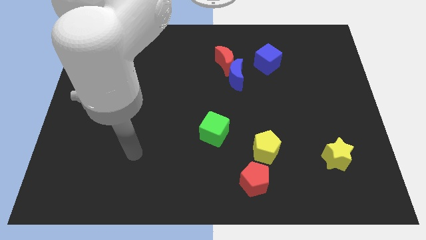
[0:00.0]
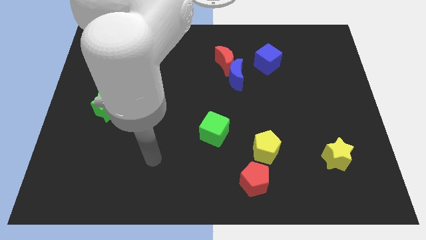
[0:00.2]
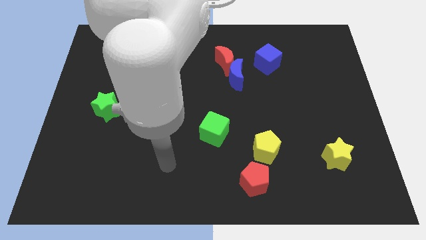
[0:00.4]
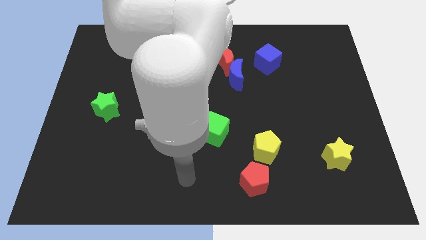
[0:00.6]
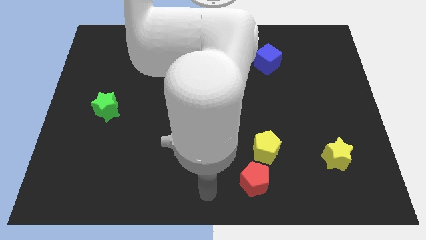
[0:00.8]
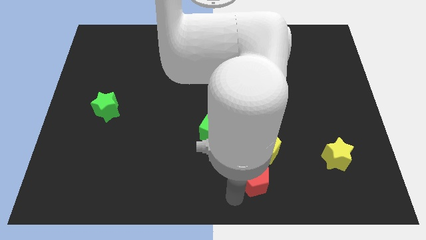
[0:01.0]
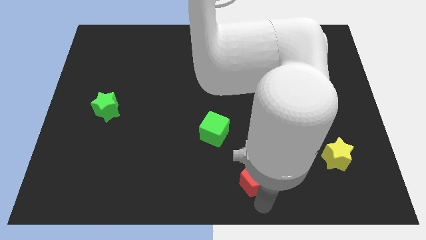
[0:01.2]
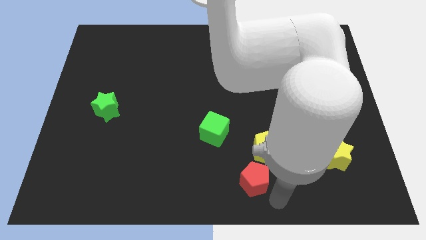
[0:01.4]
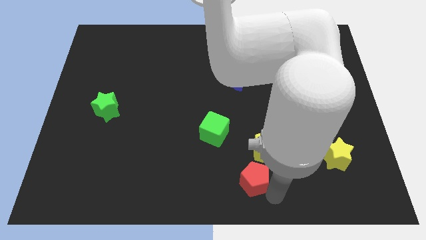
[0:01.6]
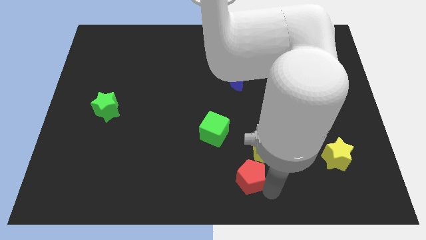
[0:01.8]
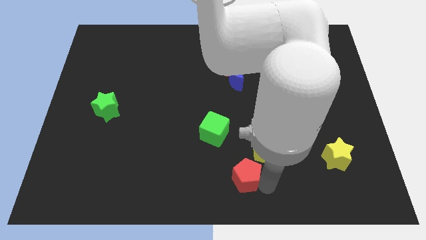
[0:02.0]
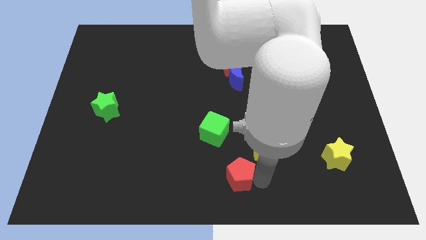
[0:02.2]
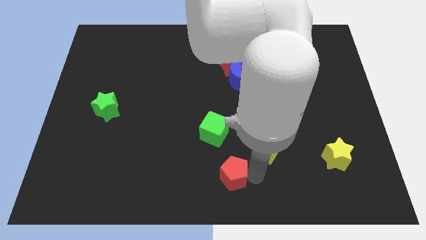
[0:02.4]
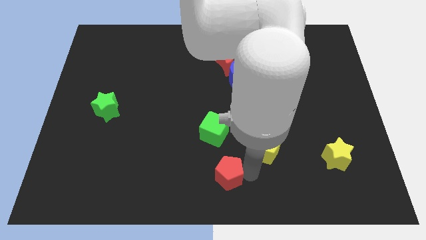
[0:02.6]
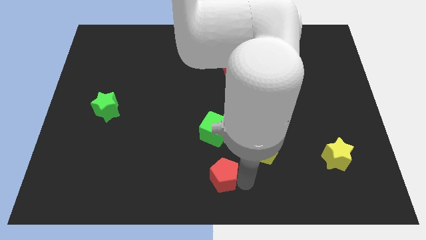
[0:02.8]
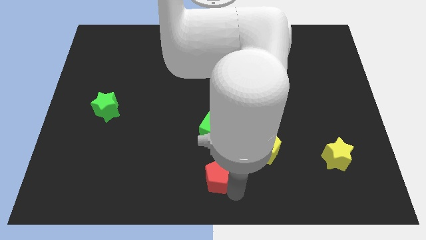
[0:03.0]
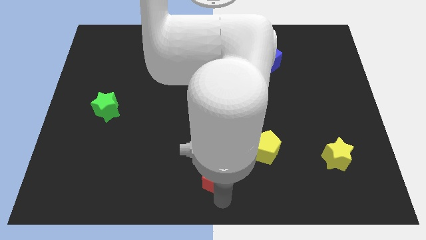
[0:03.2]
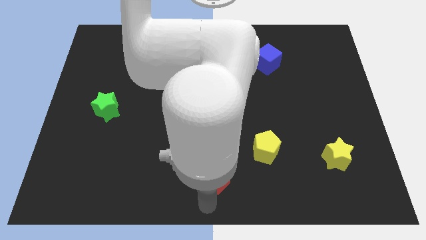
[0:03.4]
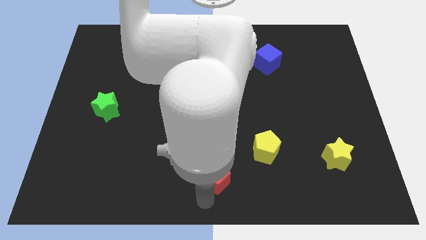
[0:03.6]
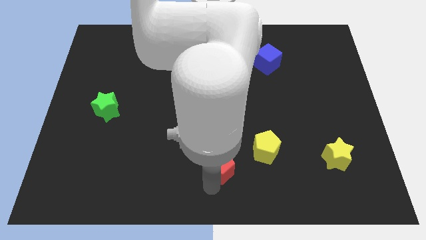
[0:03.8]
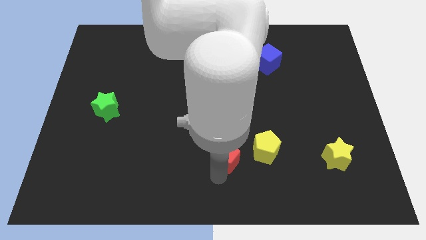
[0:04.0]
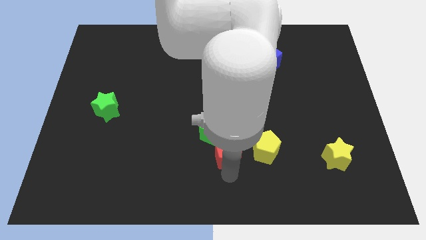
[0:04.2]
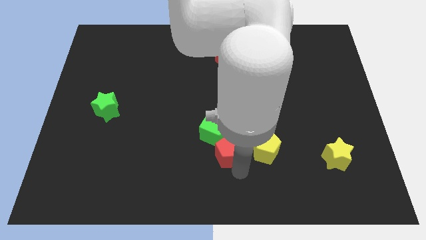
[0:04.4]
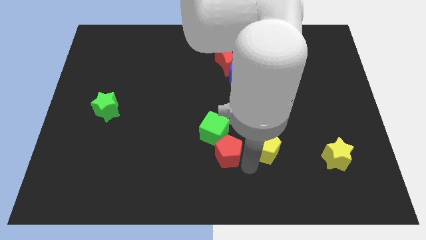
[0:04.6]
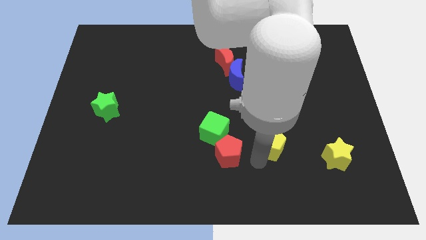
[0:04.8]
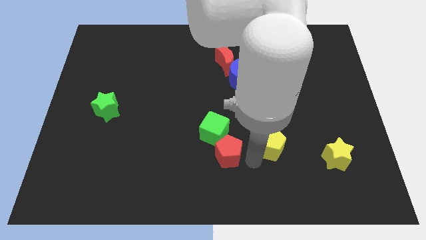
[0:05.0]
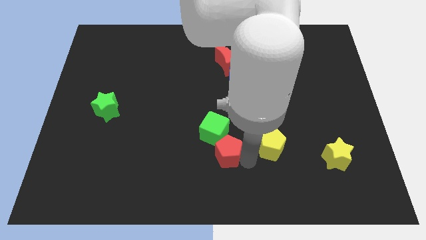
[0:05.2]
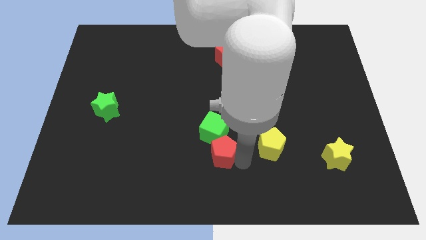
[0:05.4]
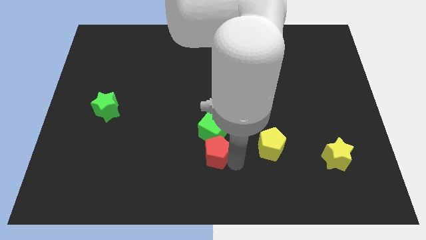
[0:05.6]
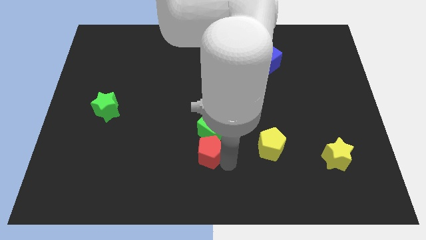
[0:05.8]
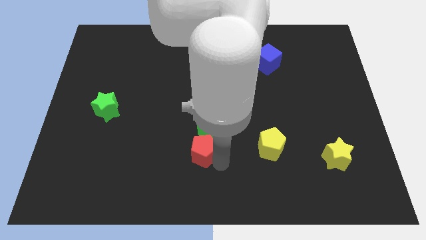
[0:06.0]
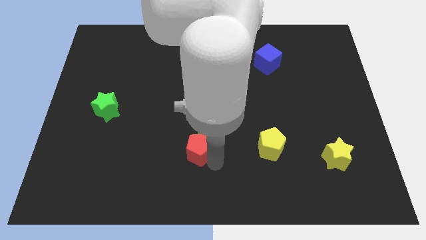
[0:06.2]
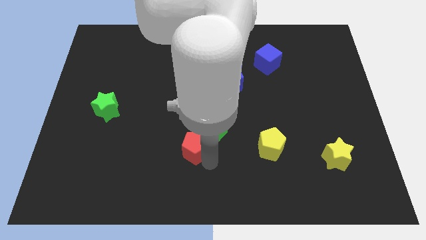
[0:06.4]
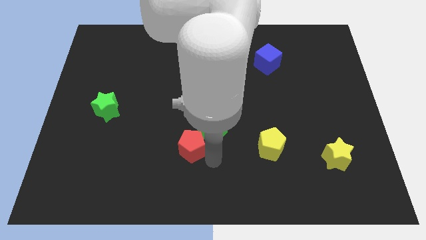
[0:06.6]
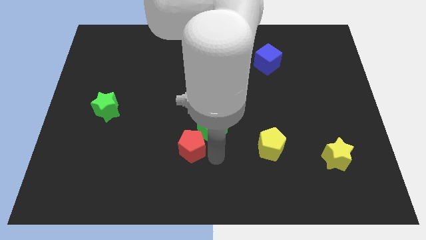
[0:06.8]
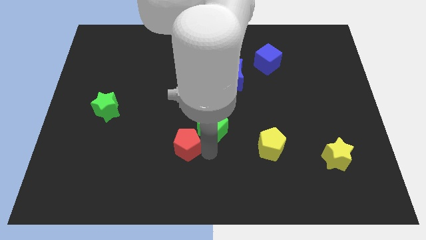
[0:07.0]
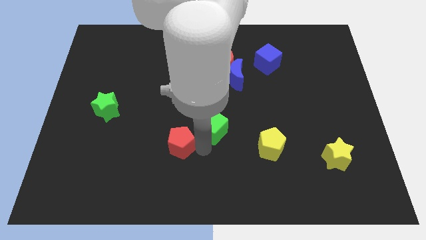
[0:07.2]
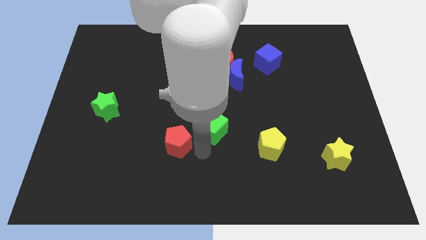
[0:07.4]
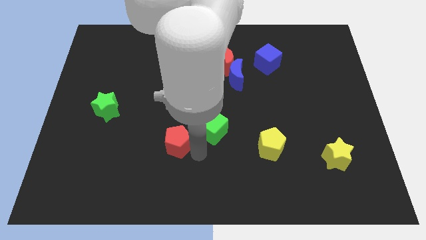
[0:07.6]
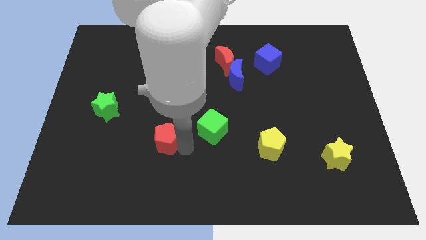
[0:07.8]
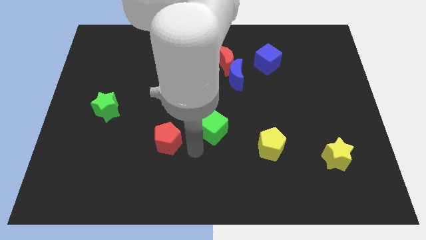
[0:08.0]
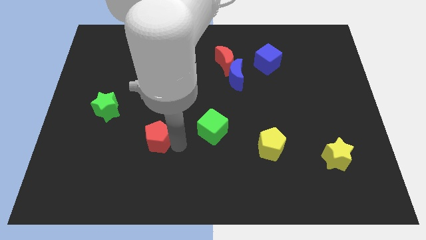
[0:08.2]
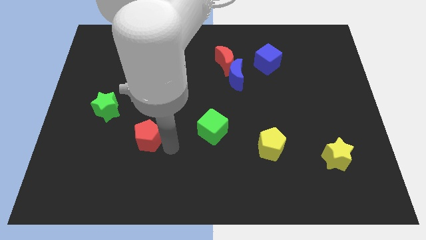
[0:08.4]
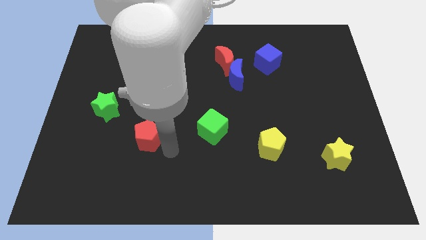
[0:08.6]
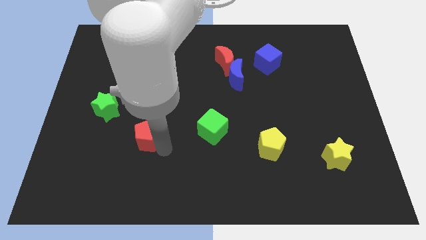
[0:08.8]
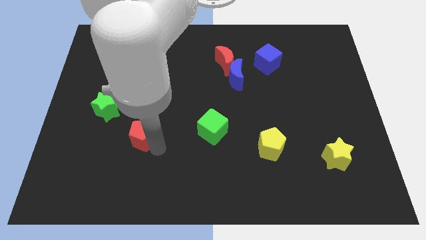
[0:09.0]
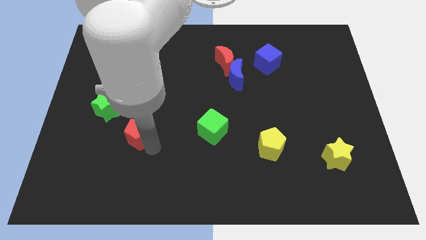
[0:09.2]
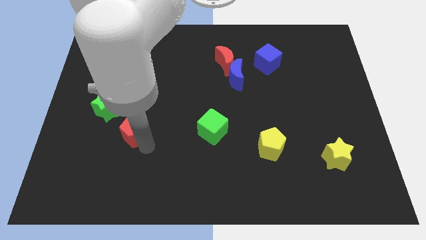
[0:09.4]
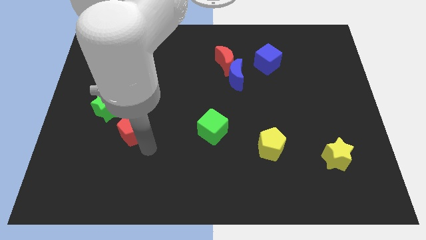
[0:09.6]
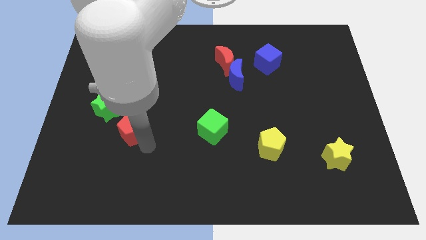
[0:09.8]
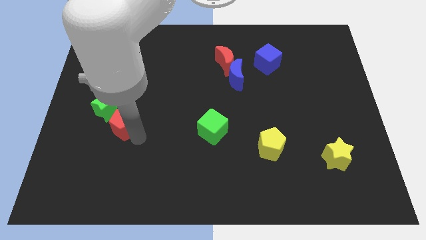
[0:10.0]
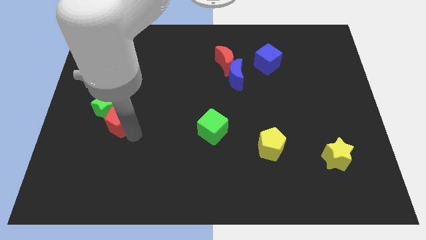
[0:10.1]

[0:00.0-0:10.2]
move the red pentagon towards the green star

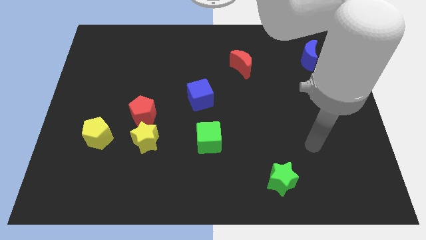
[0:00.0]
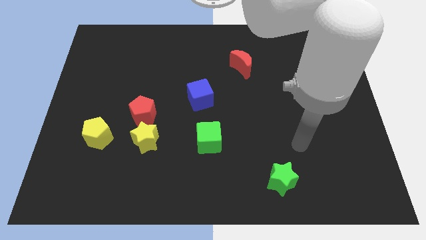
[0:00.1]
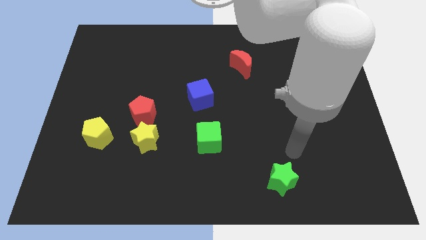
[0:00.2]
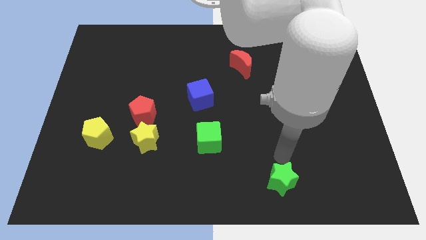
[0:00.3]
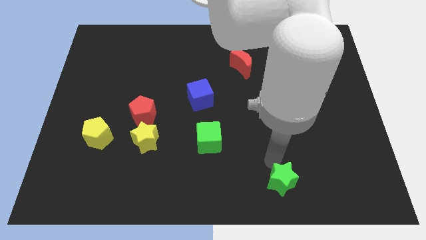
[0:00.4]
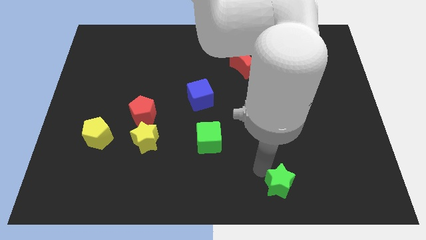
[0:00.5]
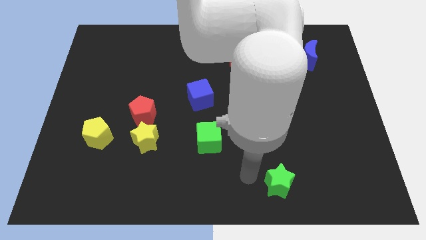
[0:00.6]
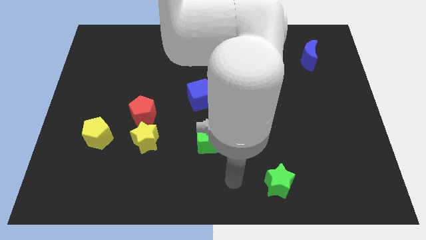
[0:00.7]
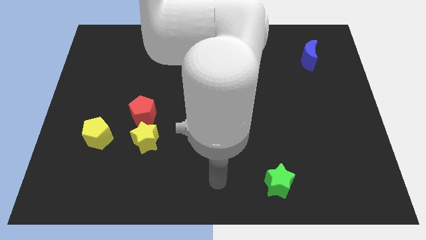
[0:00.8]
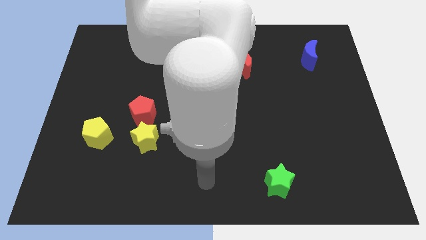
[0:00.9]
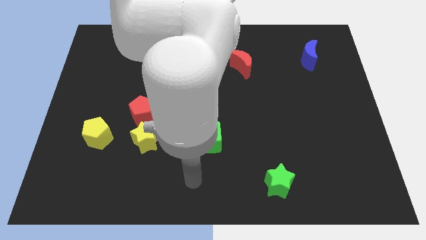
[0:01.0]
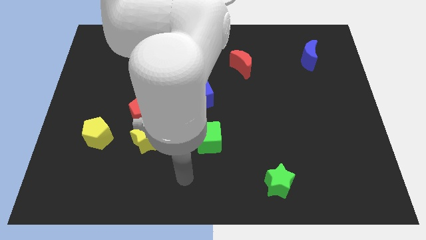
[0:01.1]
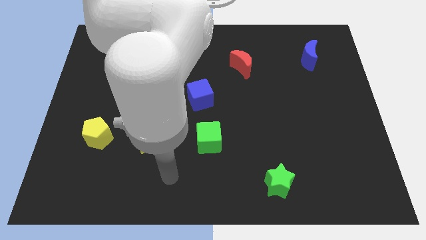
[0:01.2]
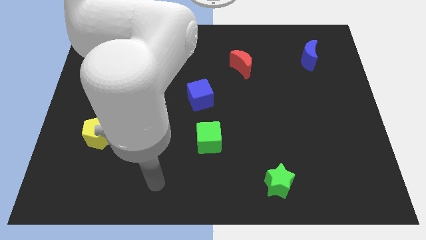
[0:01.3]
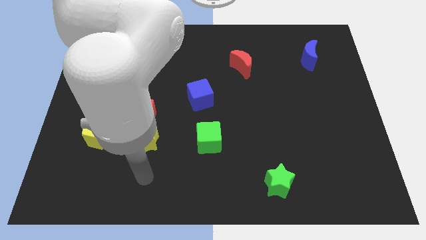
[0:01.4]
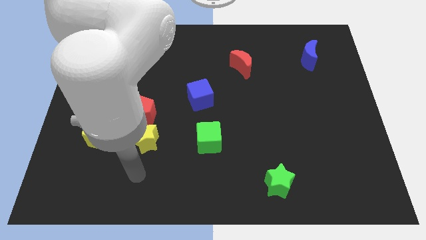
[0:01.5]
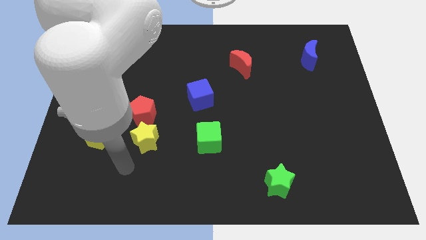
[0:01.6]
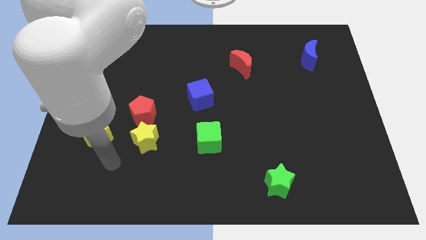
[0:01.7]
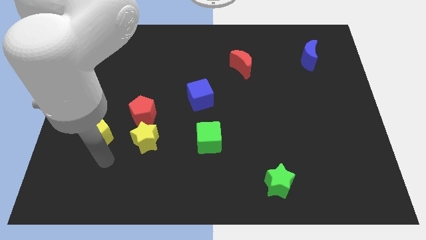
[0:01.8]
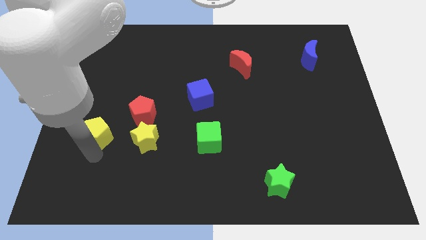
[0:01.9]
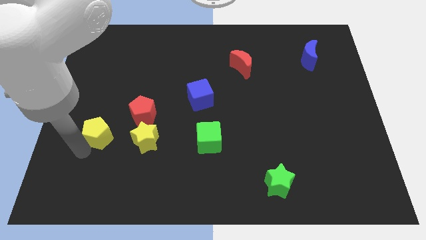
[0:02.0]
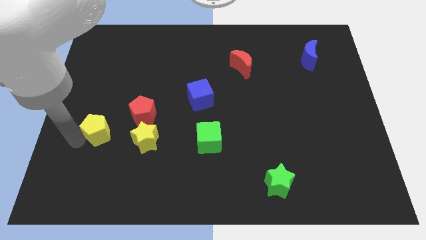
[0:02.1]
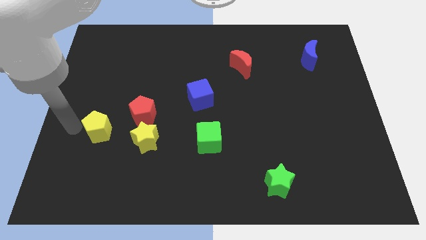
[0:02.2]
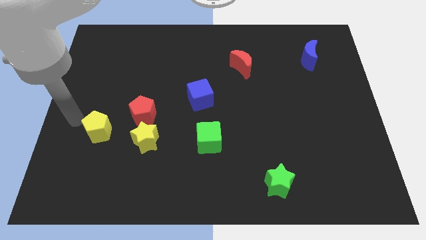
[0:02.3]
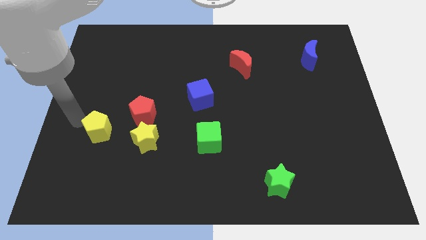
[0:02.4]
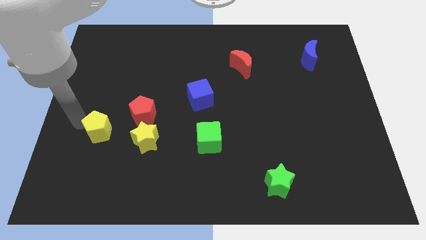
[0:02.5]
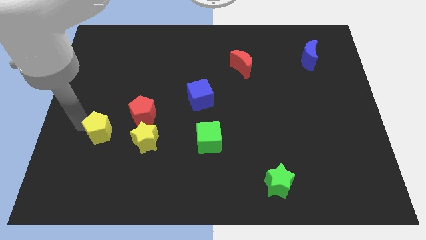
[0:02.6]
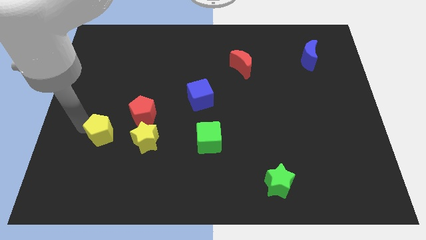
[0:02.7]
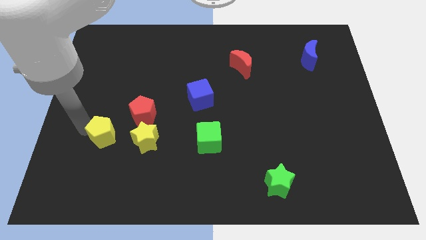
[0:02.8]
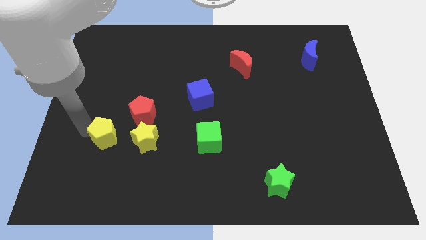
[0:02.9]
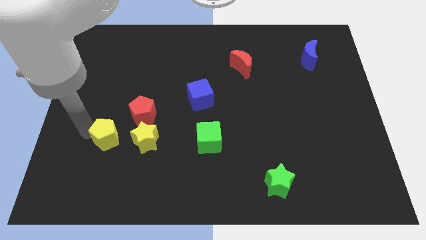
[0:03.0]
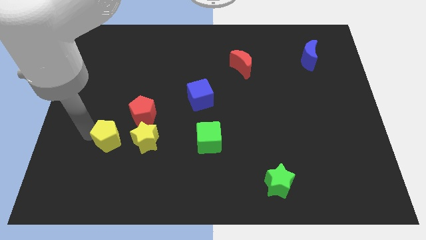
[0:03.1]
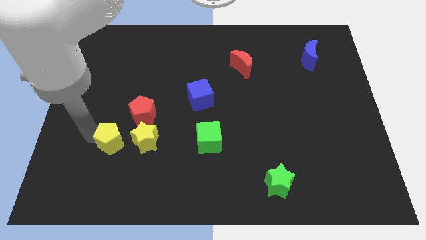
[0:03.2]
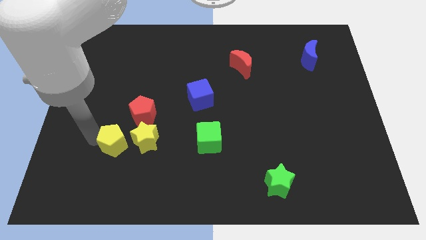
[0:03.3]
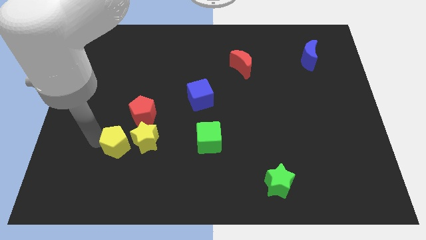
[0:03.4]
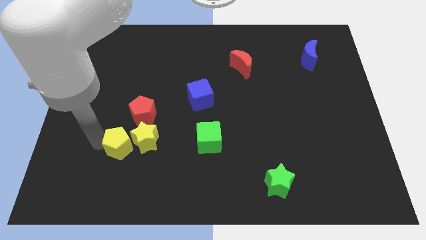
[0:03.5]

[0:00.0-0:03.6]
put the yellow pentagon close to the yellow star
